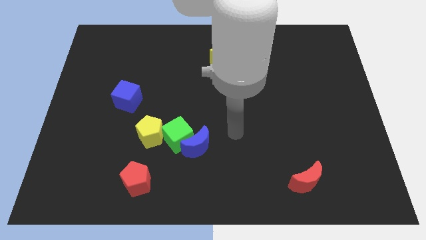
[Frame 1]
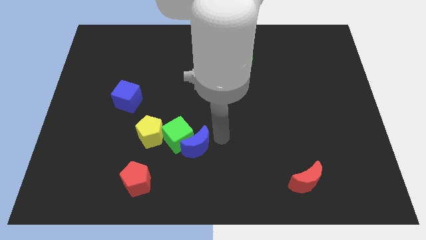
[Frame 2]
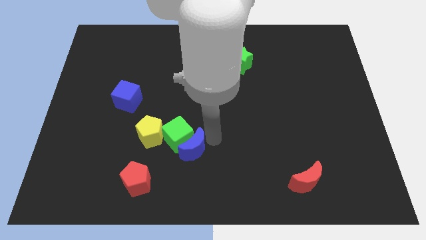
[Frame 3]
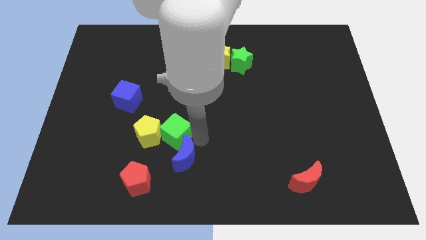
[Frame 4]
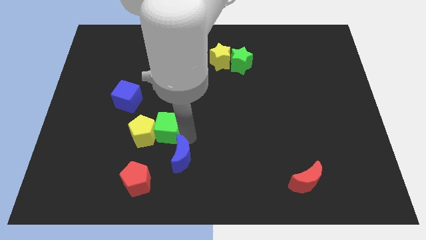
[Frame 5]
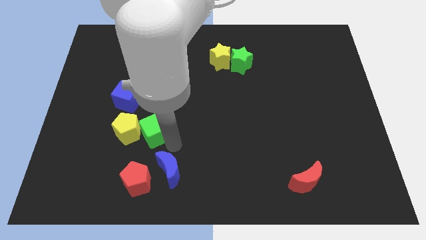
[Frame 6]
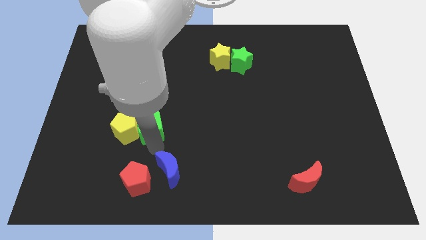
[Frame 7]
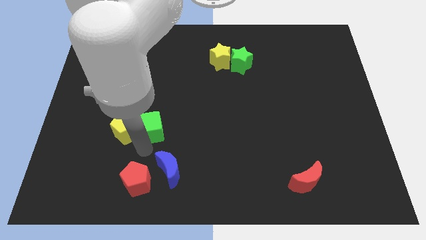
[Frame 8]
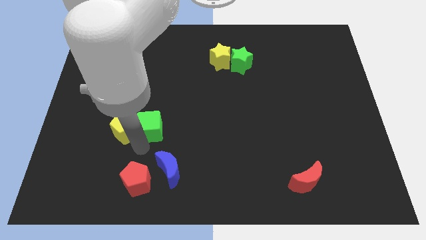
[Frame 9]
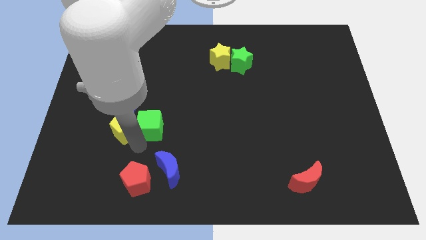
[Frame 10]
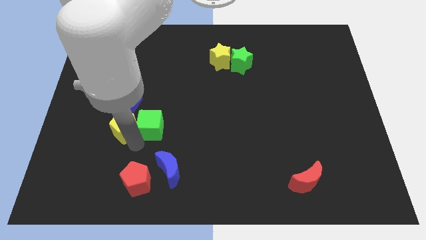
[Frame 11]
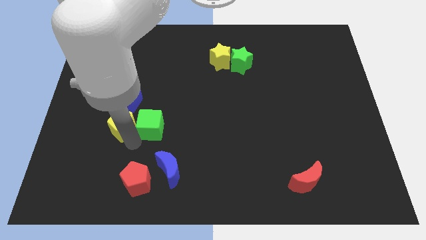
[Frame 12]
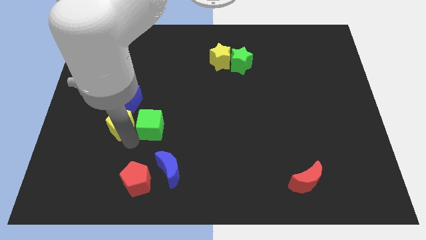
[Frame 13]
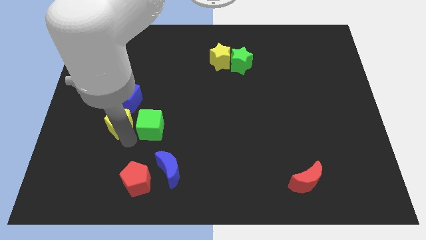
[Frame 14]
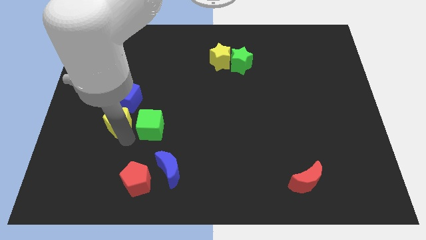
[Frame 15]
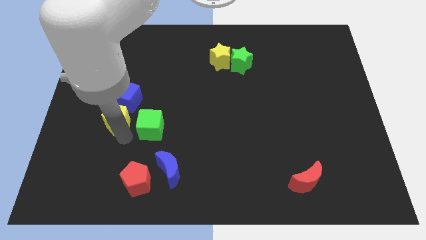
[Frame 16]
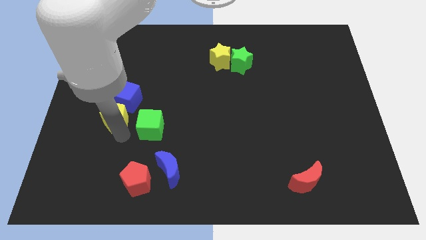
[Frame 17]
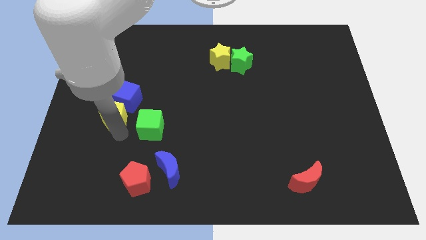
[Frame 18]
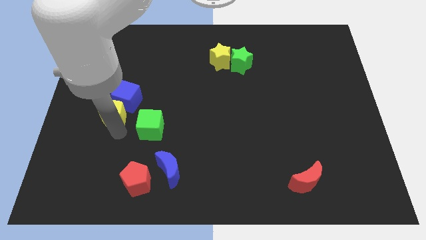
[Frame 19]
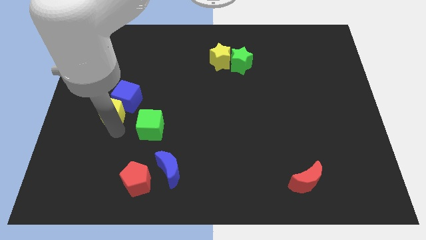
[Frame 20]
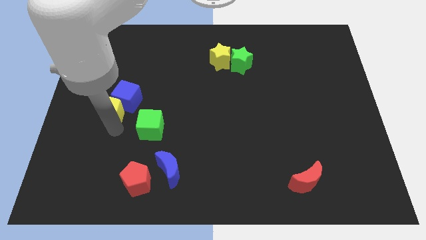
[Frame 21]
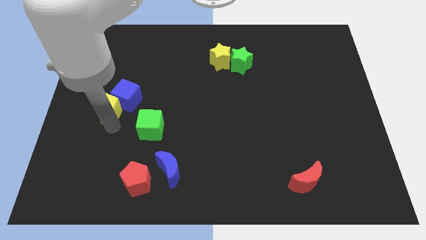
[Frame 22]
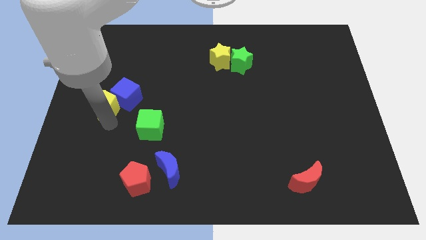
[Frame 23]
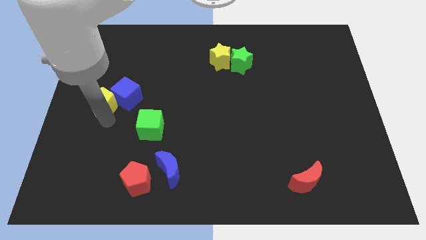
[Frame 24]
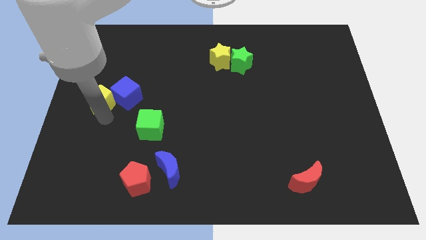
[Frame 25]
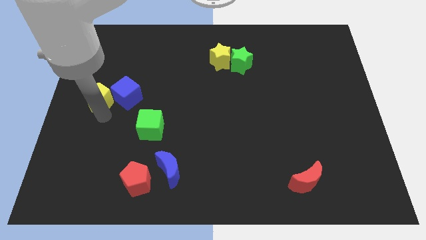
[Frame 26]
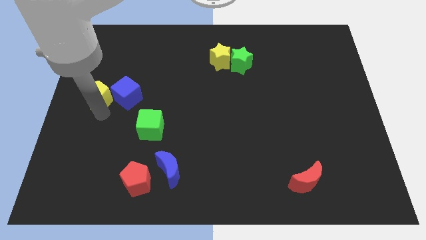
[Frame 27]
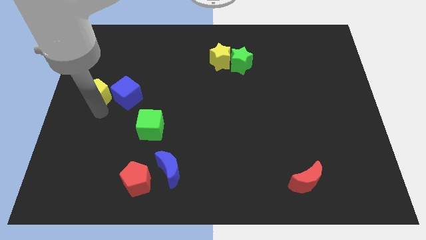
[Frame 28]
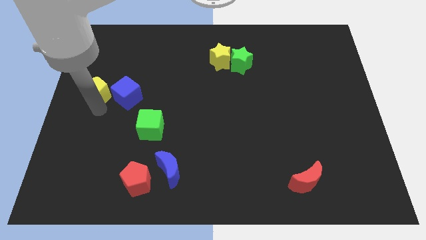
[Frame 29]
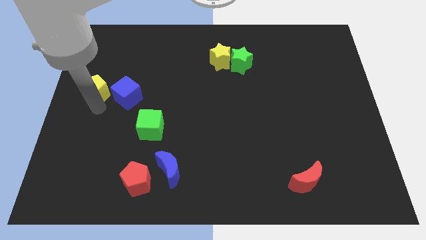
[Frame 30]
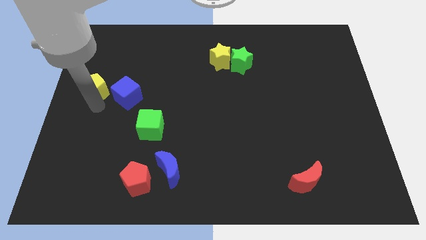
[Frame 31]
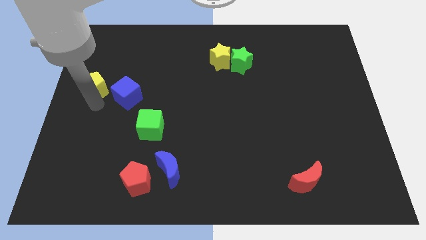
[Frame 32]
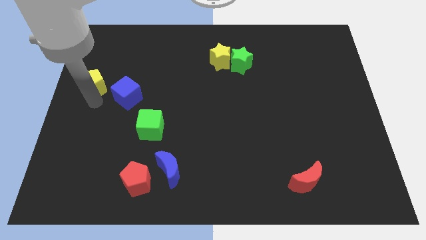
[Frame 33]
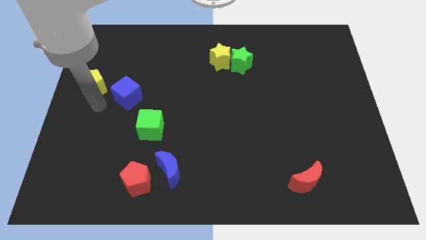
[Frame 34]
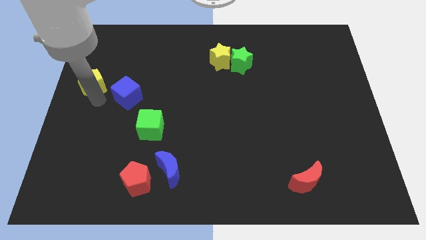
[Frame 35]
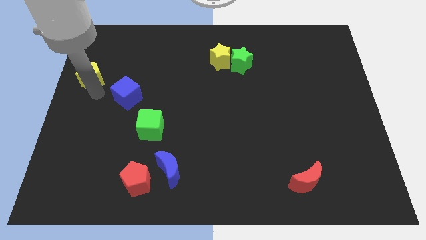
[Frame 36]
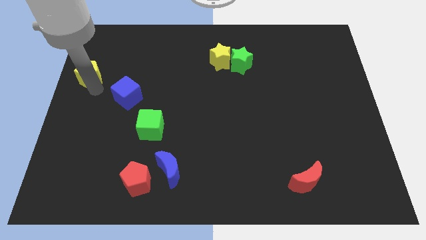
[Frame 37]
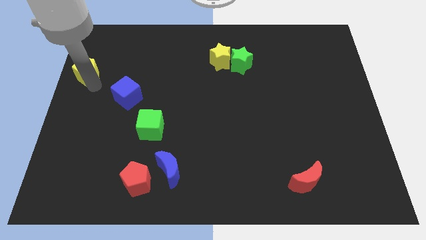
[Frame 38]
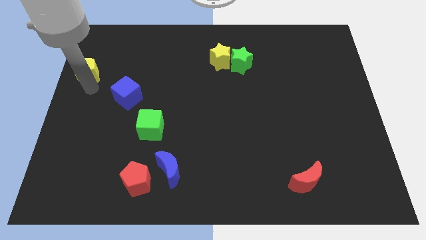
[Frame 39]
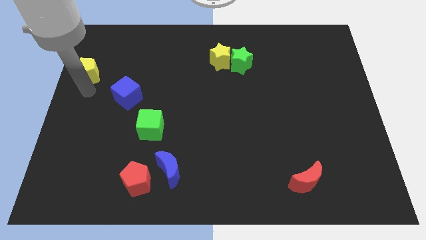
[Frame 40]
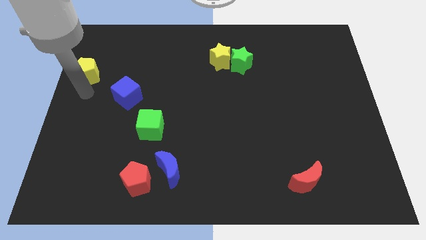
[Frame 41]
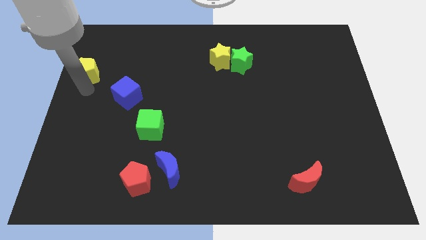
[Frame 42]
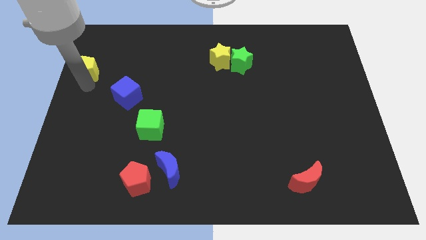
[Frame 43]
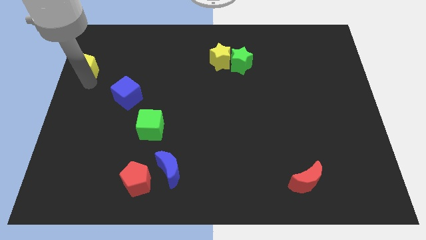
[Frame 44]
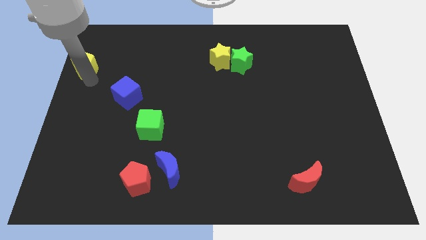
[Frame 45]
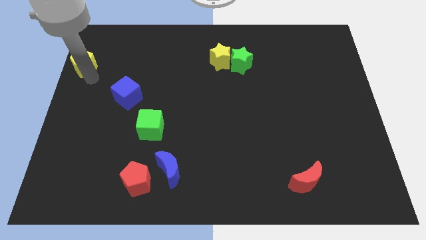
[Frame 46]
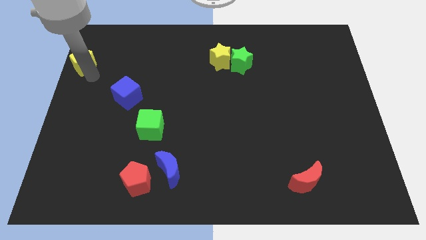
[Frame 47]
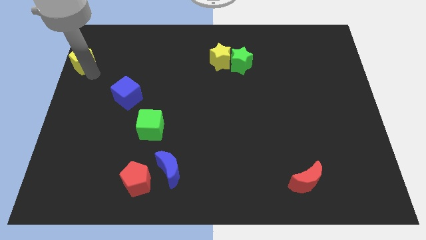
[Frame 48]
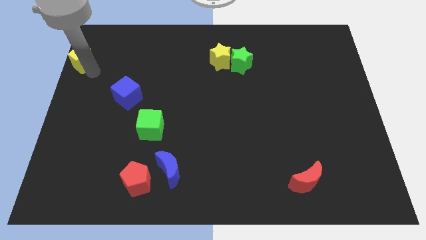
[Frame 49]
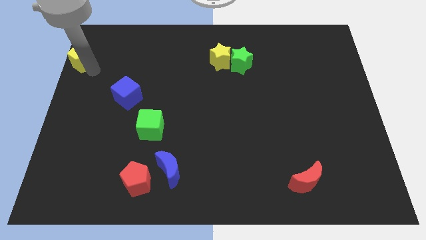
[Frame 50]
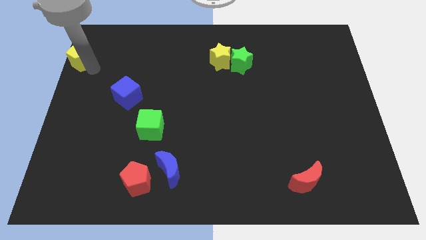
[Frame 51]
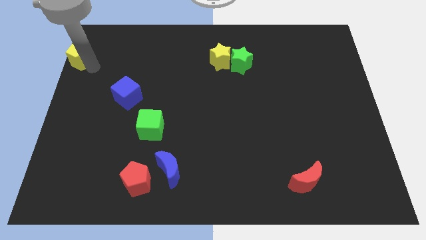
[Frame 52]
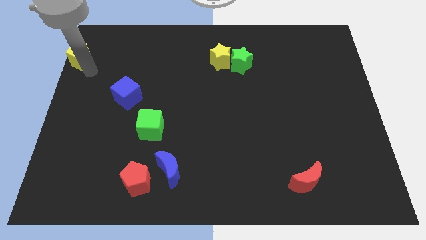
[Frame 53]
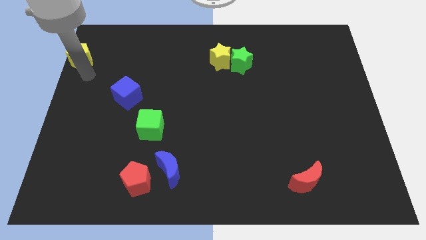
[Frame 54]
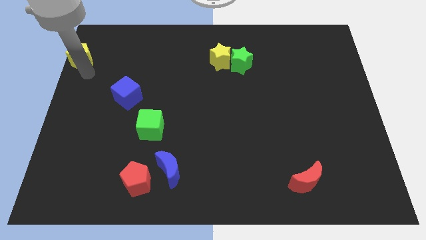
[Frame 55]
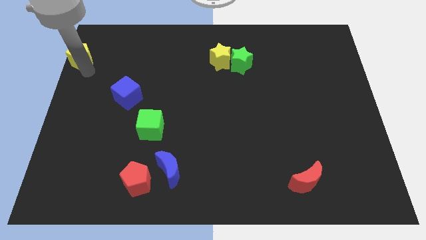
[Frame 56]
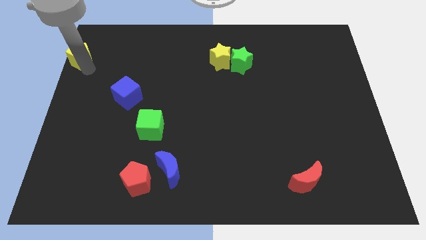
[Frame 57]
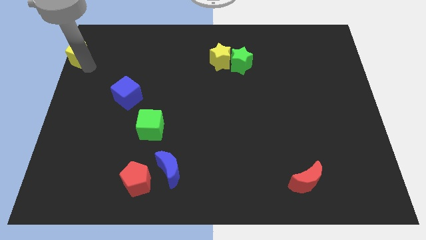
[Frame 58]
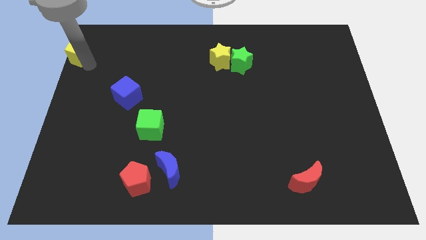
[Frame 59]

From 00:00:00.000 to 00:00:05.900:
move the yellow pentagon to the upper left corner
